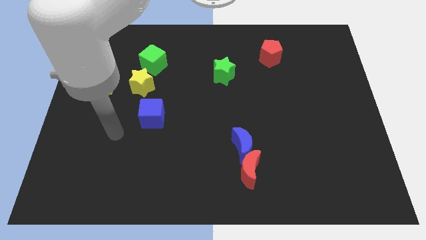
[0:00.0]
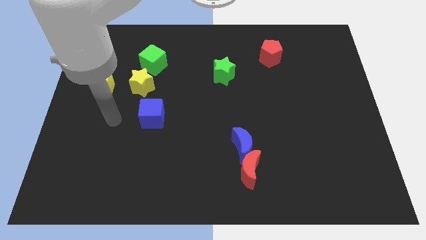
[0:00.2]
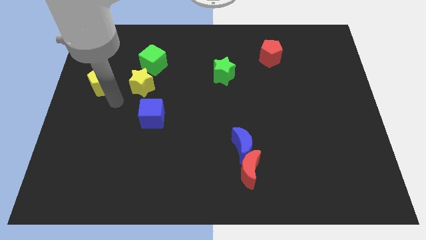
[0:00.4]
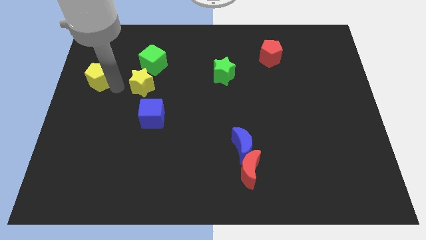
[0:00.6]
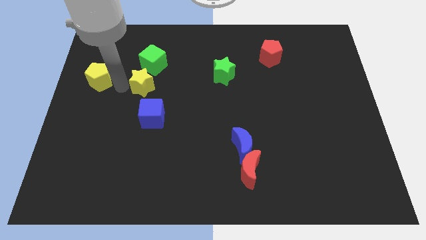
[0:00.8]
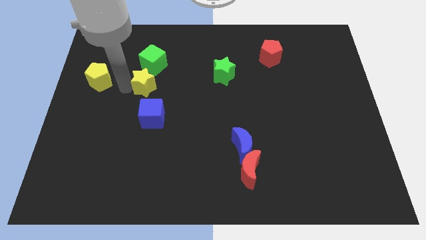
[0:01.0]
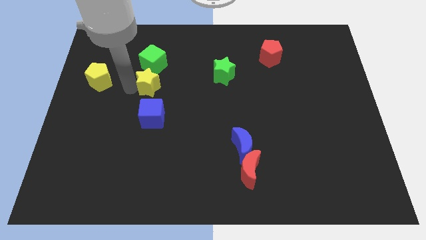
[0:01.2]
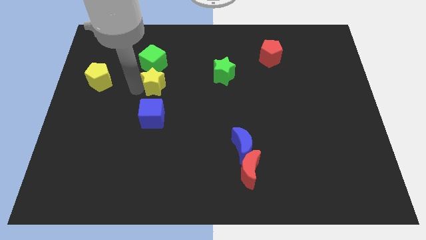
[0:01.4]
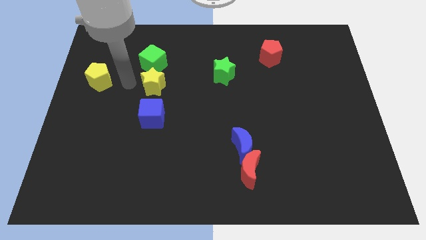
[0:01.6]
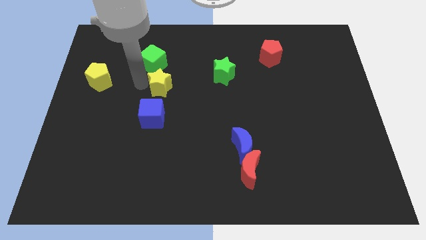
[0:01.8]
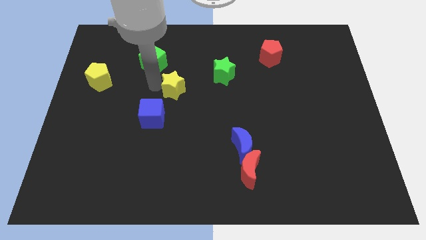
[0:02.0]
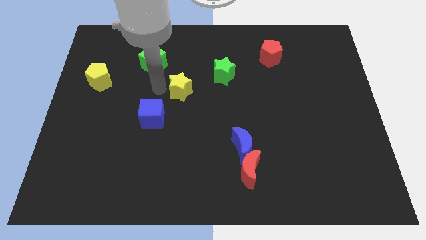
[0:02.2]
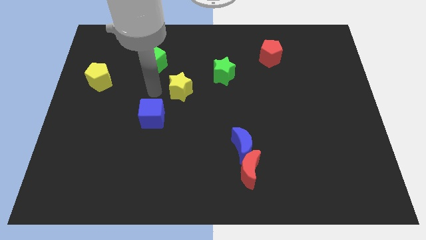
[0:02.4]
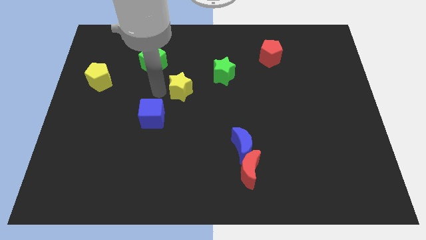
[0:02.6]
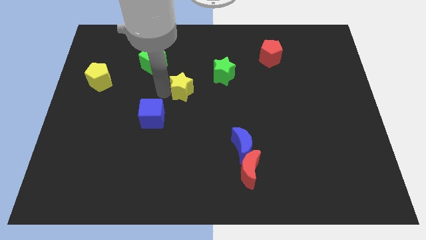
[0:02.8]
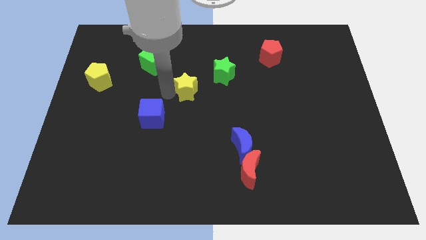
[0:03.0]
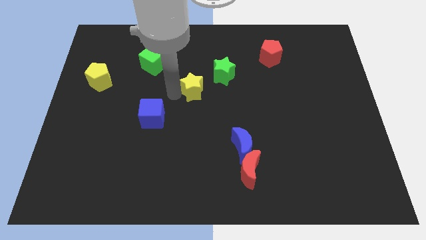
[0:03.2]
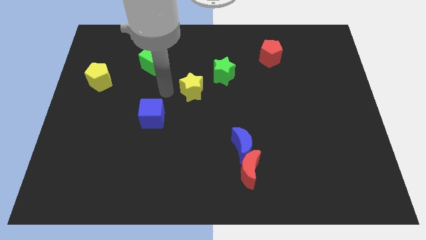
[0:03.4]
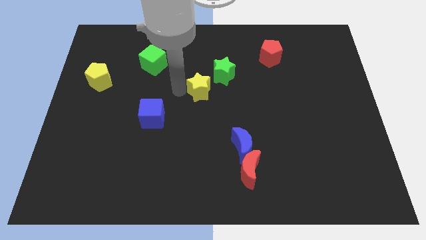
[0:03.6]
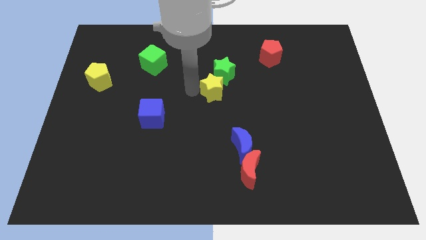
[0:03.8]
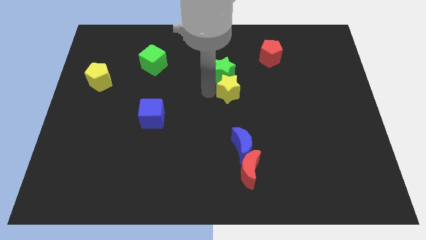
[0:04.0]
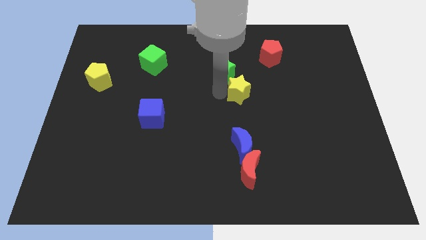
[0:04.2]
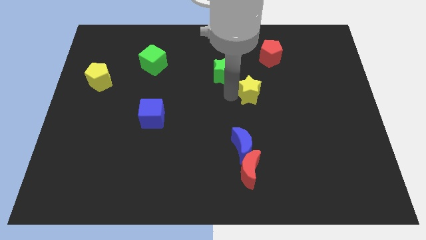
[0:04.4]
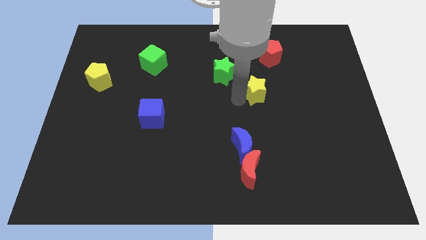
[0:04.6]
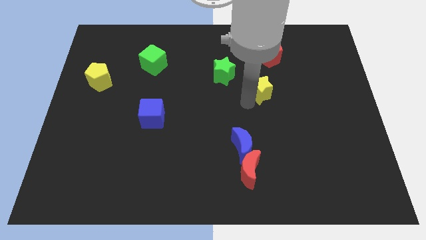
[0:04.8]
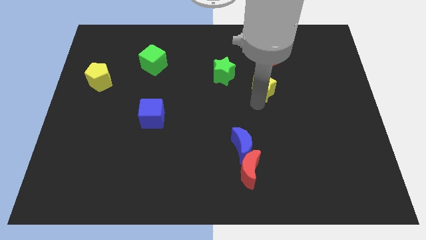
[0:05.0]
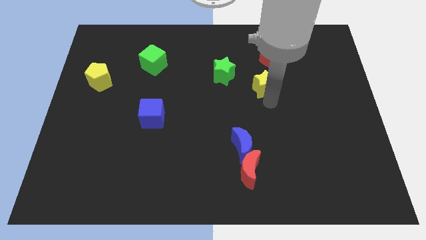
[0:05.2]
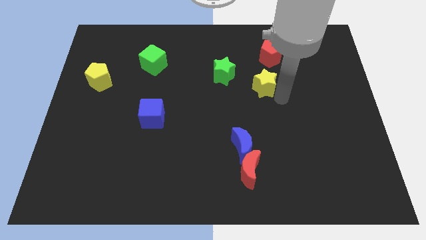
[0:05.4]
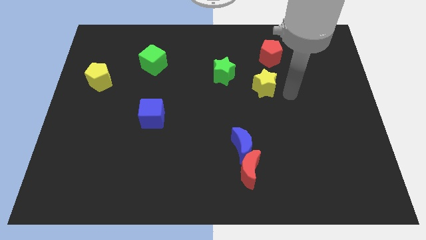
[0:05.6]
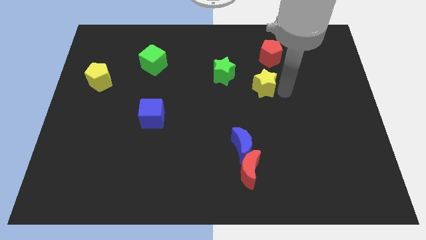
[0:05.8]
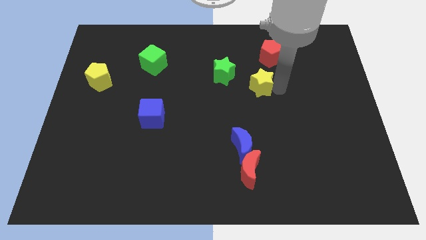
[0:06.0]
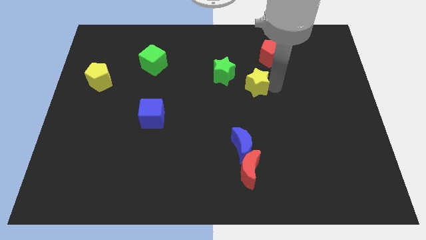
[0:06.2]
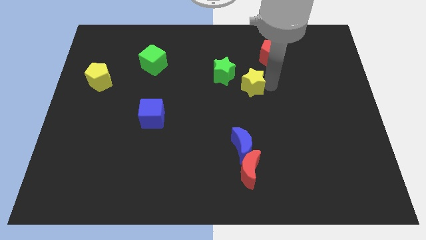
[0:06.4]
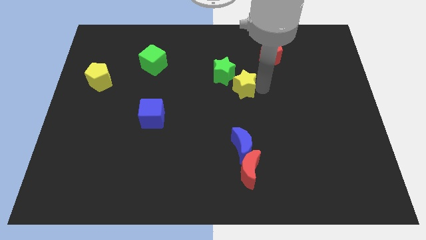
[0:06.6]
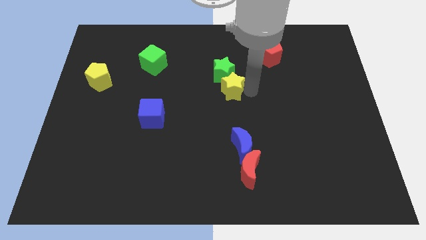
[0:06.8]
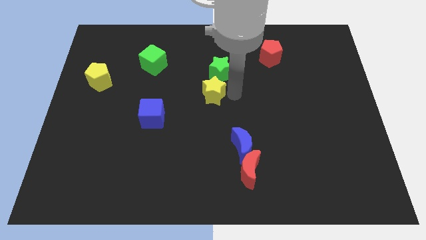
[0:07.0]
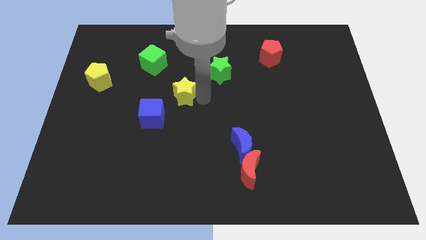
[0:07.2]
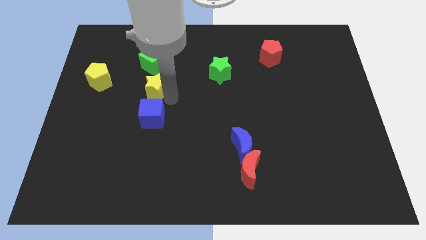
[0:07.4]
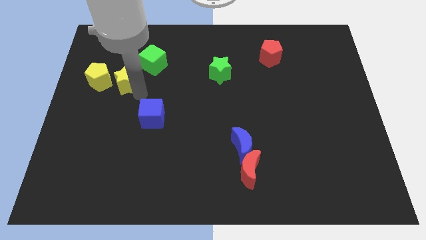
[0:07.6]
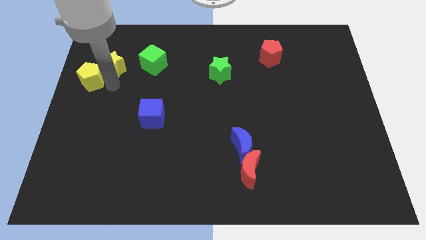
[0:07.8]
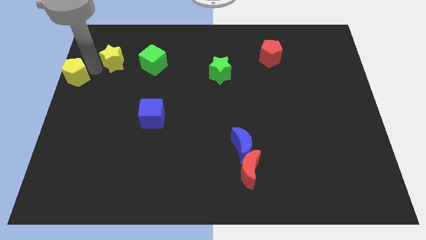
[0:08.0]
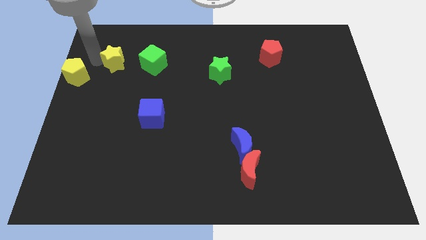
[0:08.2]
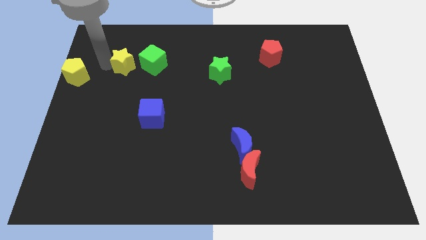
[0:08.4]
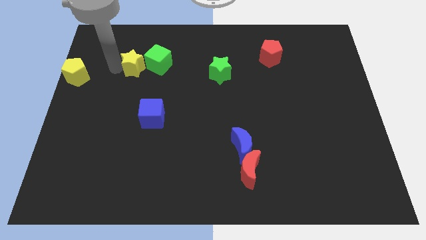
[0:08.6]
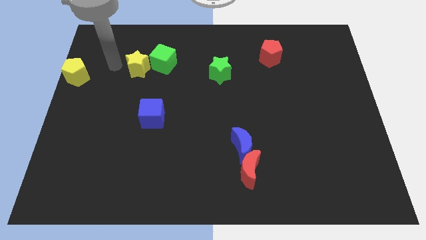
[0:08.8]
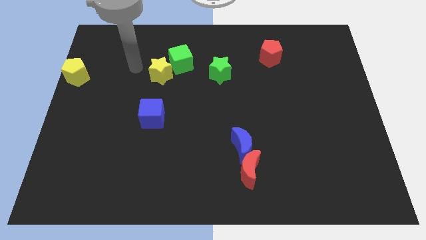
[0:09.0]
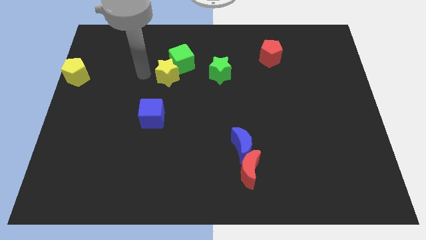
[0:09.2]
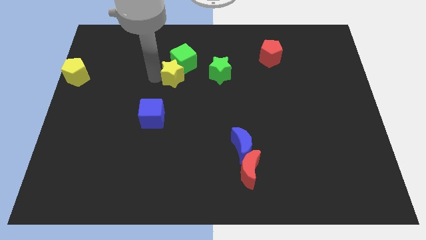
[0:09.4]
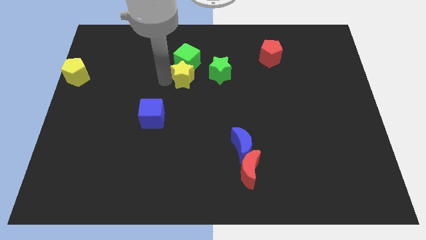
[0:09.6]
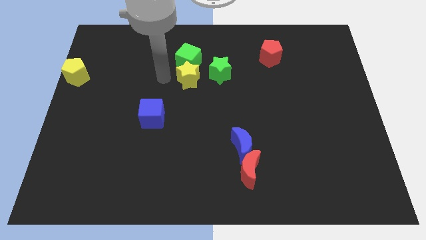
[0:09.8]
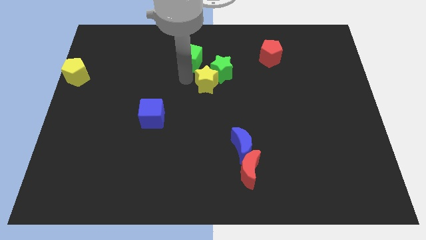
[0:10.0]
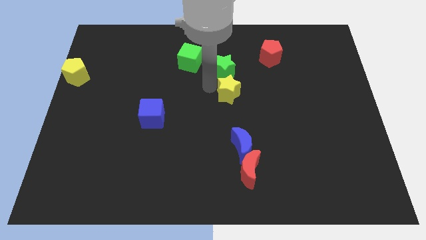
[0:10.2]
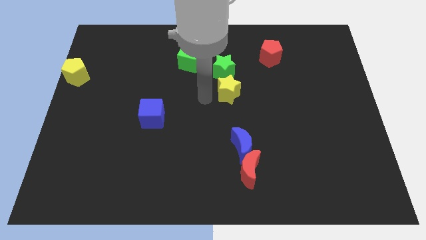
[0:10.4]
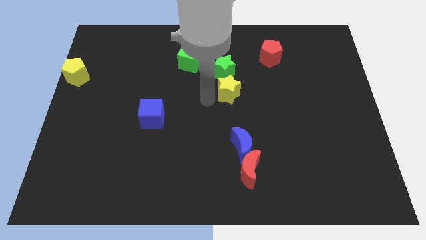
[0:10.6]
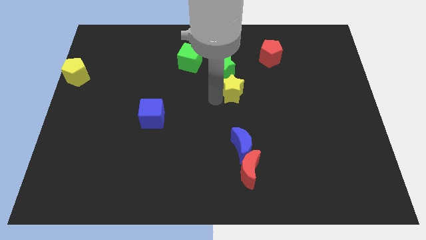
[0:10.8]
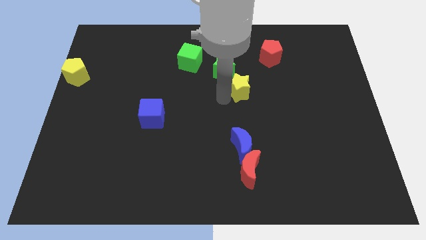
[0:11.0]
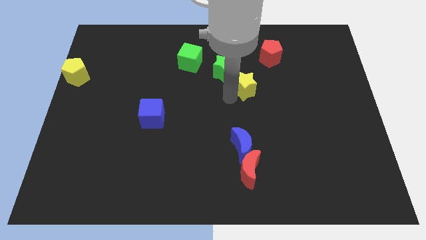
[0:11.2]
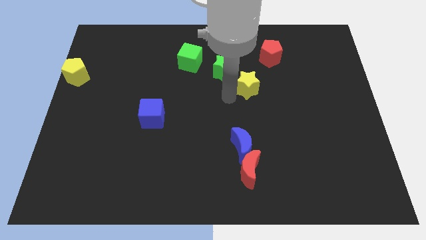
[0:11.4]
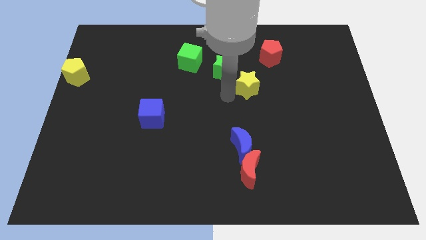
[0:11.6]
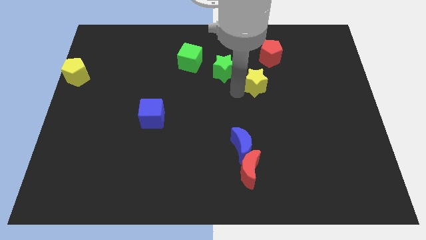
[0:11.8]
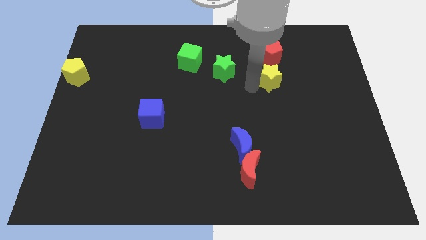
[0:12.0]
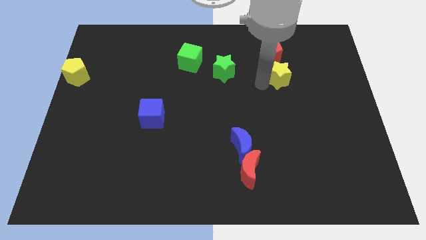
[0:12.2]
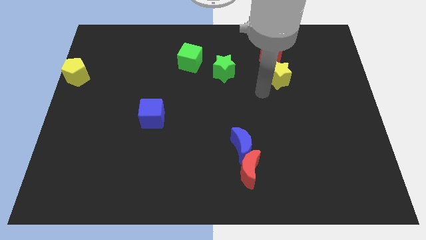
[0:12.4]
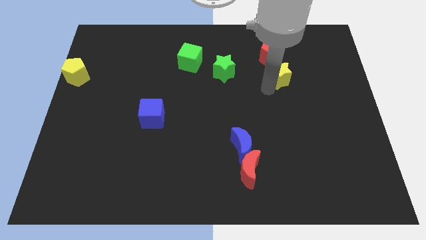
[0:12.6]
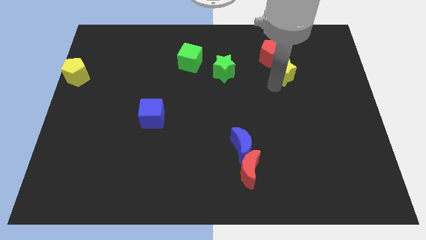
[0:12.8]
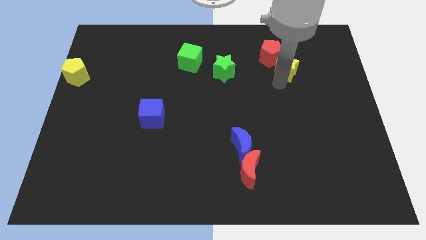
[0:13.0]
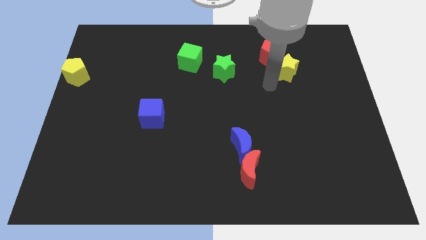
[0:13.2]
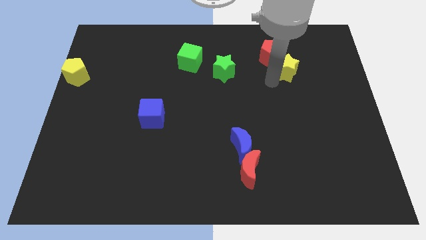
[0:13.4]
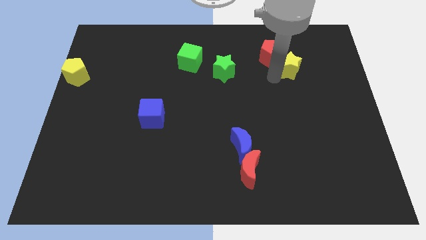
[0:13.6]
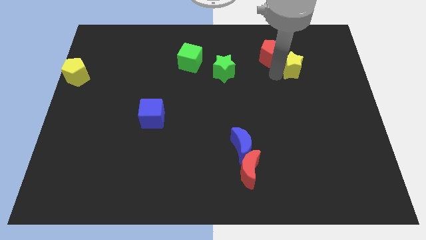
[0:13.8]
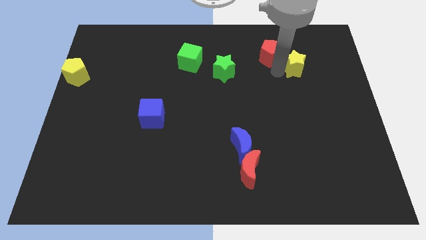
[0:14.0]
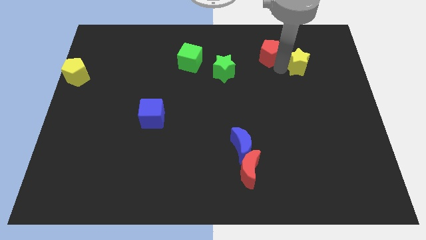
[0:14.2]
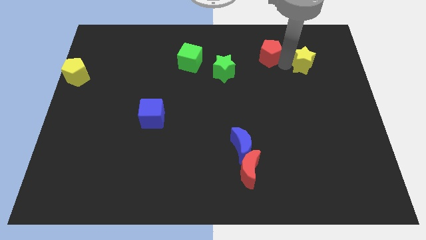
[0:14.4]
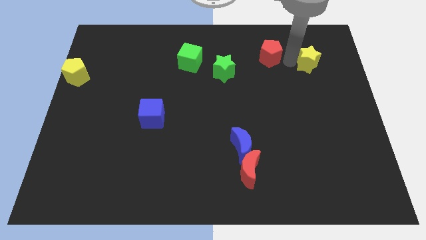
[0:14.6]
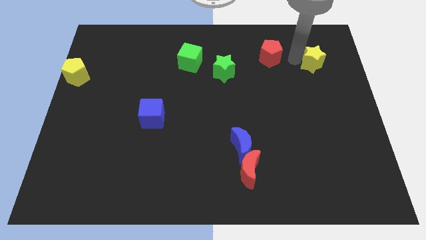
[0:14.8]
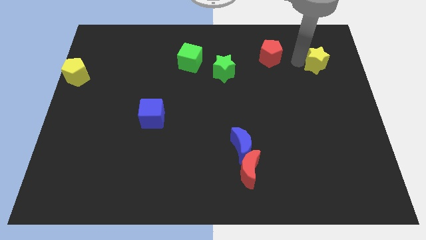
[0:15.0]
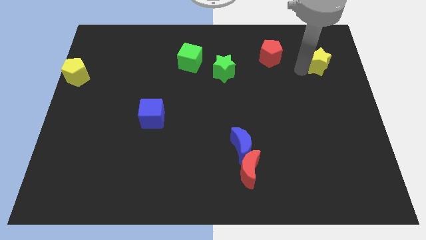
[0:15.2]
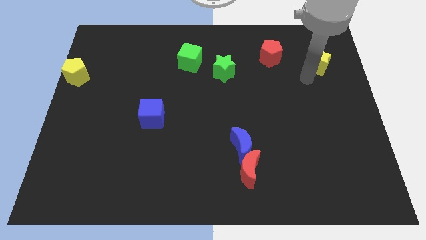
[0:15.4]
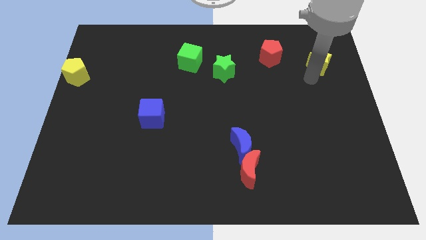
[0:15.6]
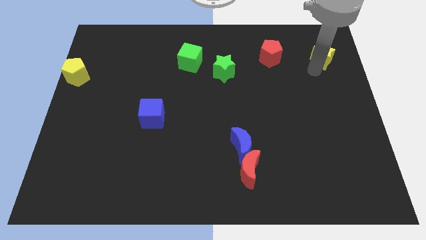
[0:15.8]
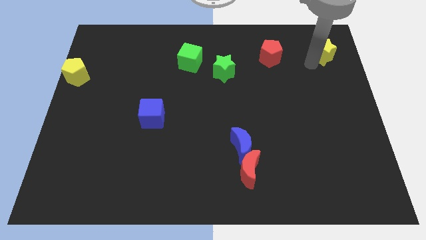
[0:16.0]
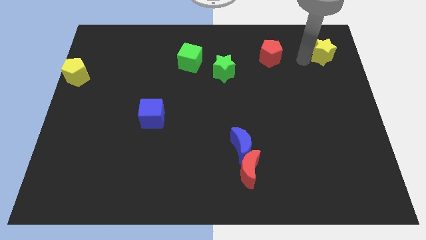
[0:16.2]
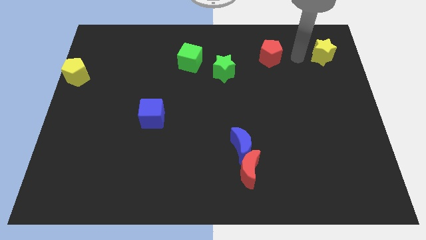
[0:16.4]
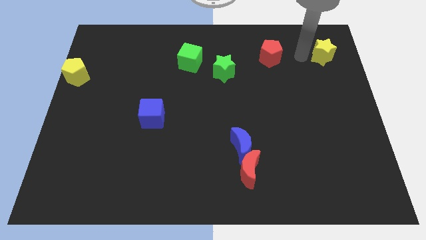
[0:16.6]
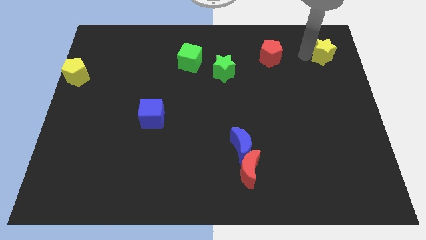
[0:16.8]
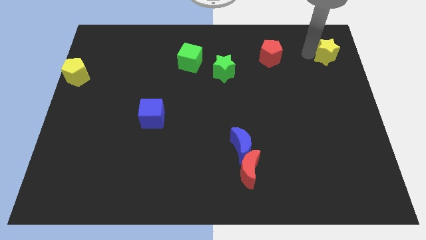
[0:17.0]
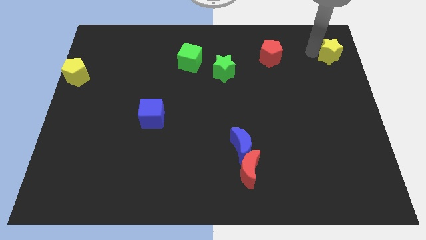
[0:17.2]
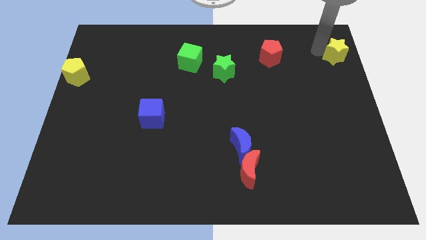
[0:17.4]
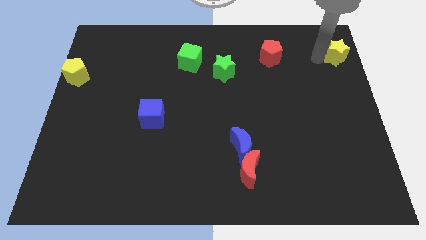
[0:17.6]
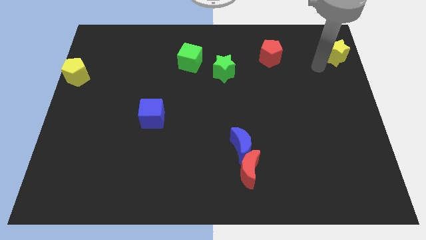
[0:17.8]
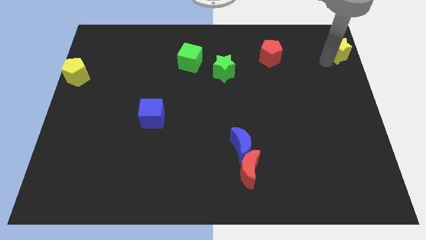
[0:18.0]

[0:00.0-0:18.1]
put the yellow star to the upper right corner
